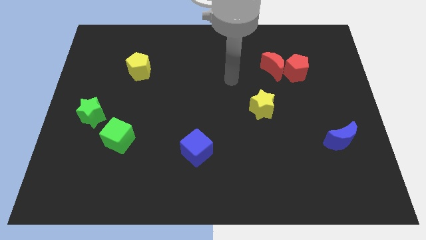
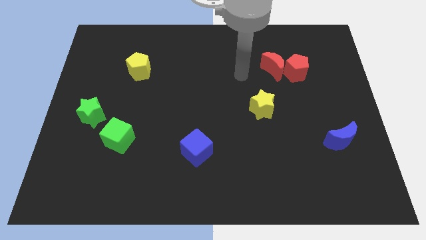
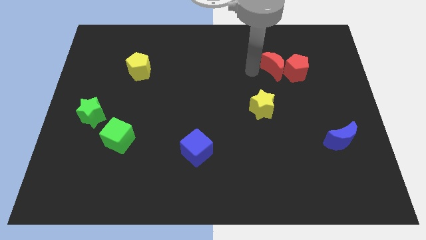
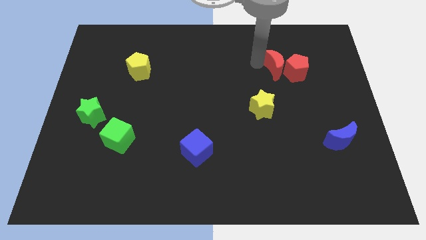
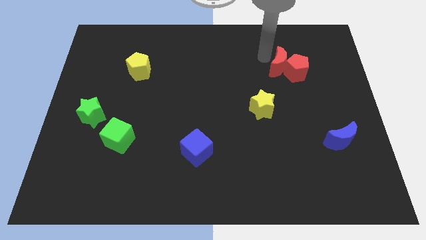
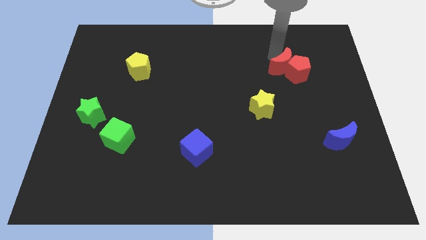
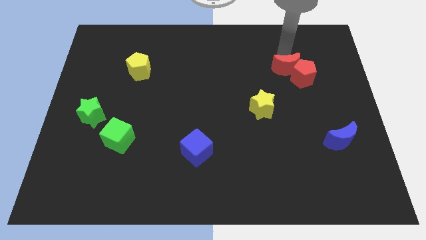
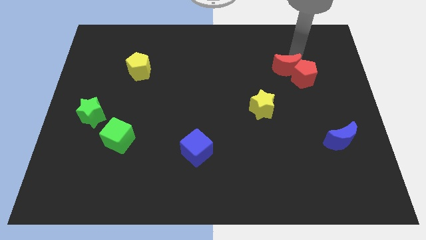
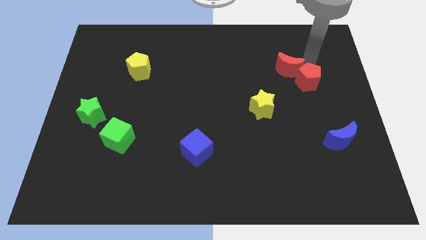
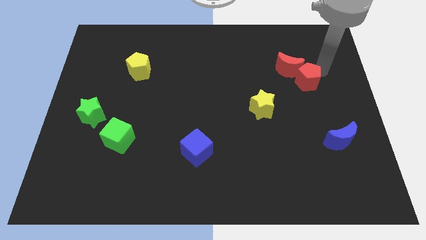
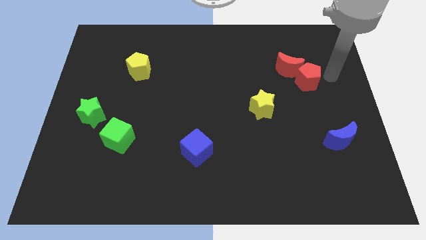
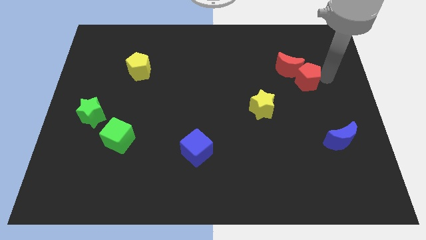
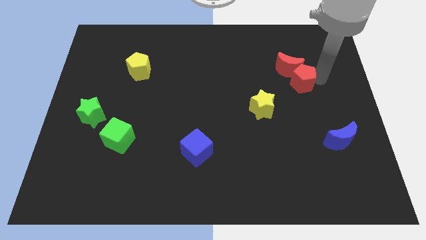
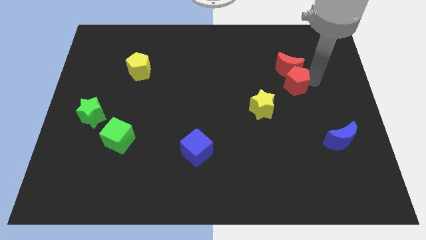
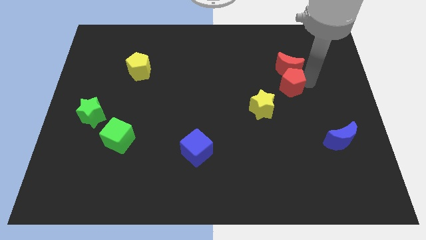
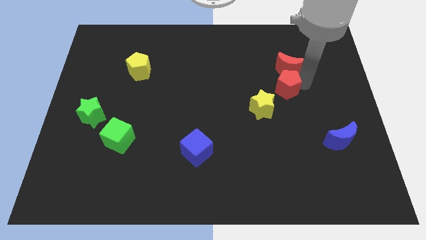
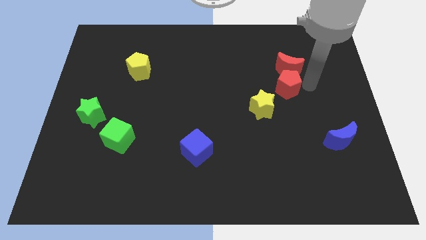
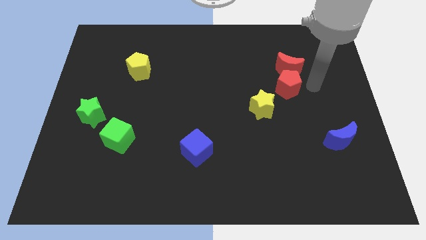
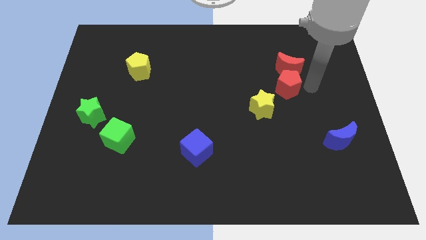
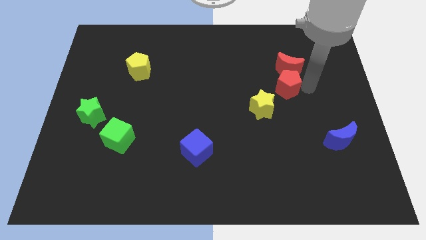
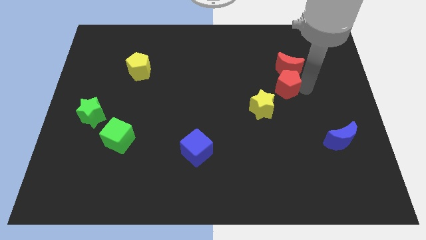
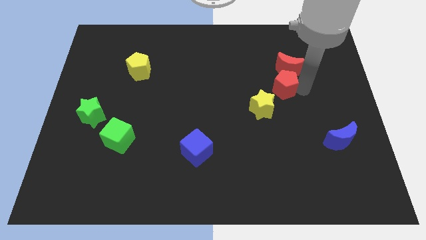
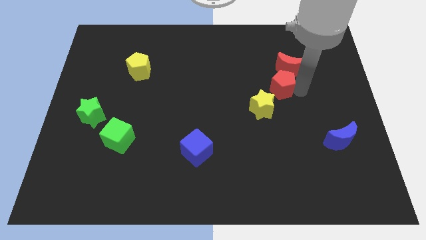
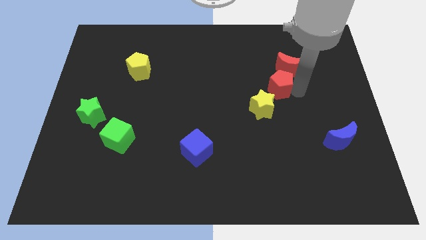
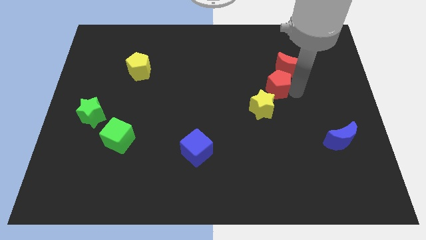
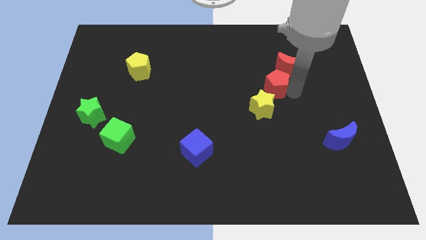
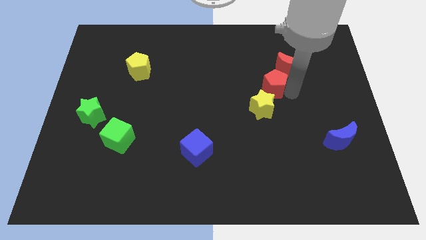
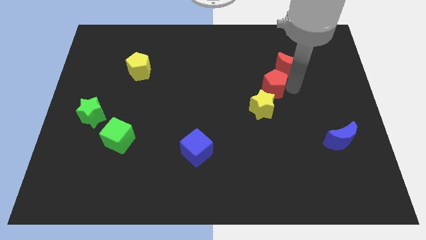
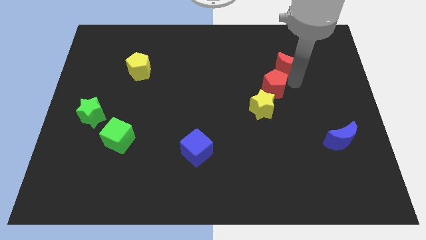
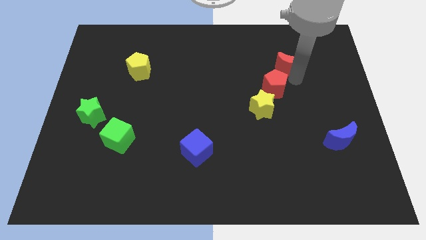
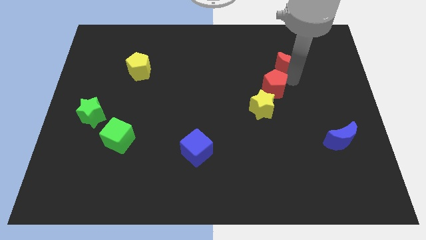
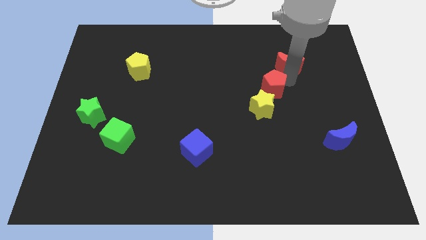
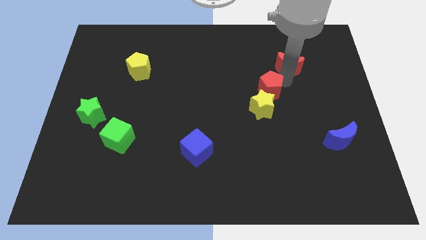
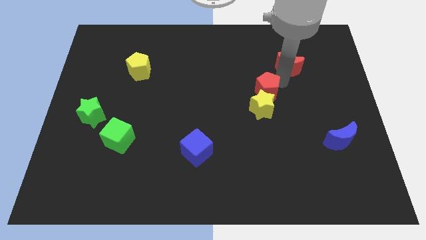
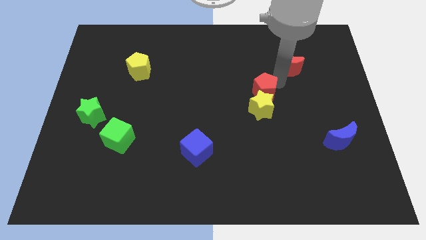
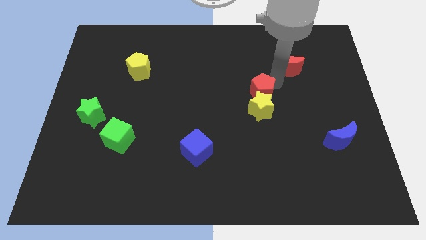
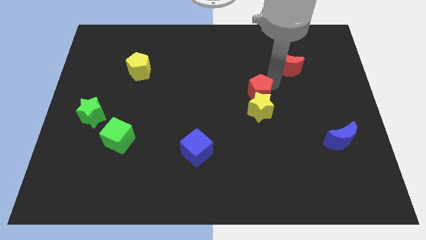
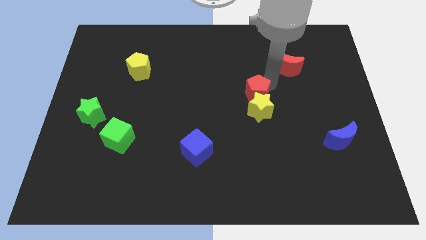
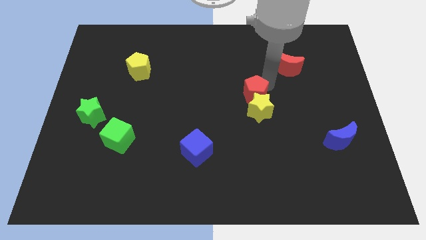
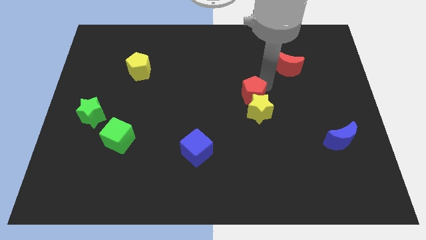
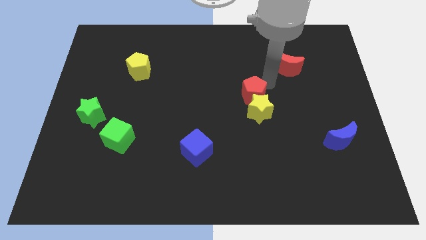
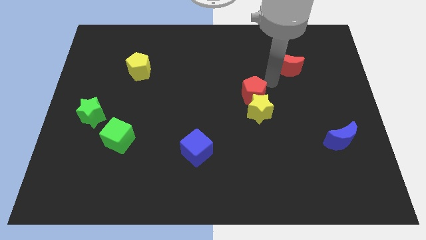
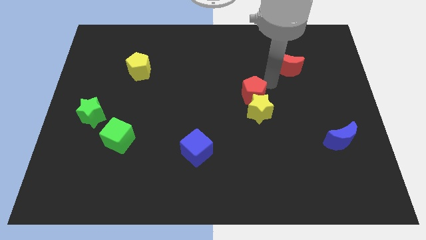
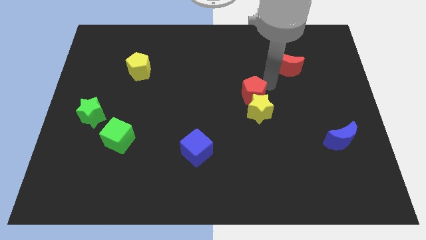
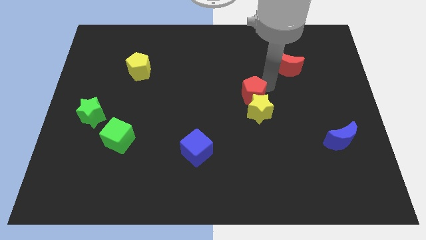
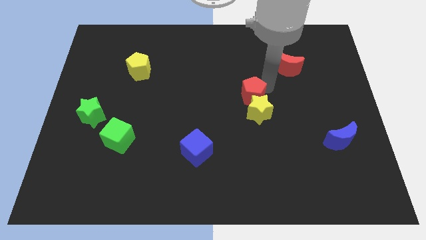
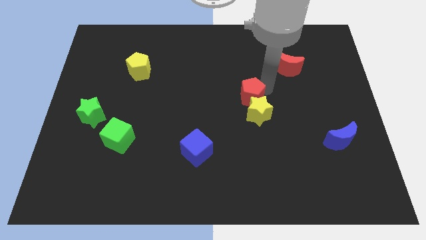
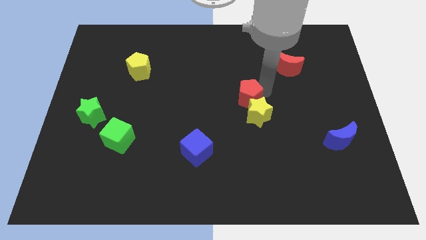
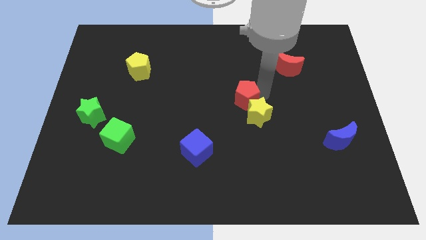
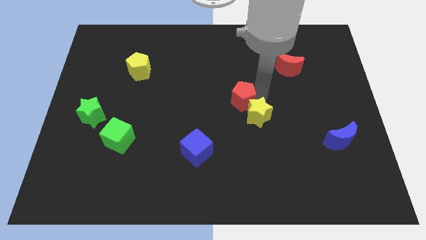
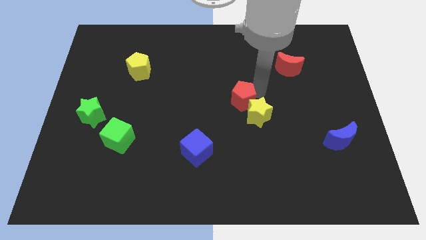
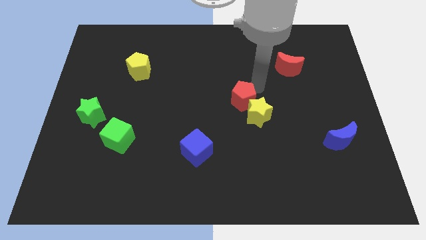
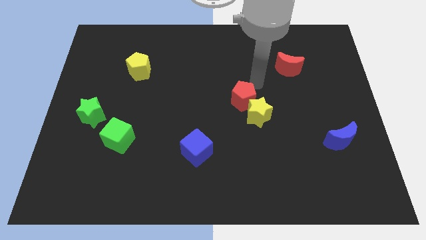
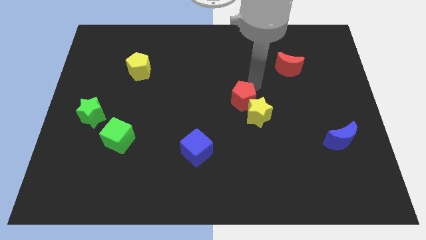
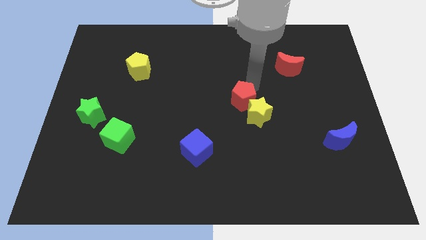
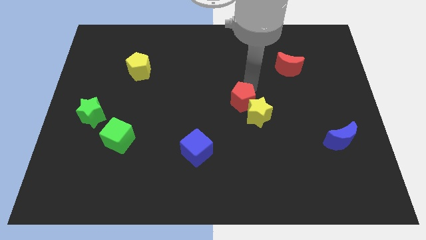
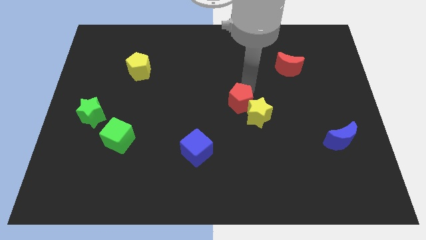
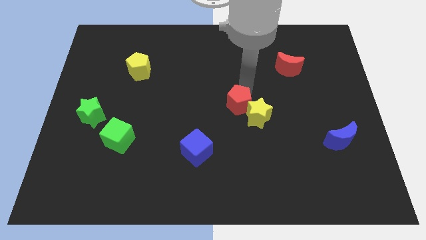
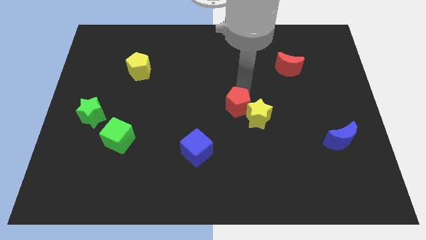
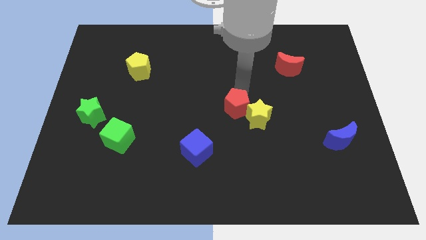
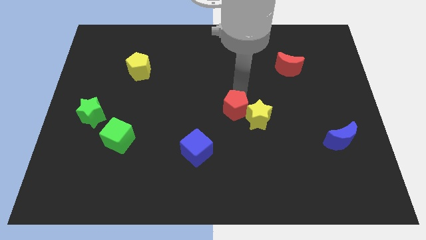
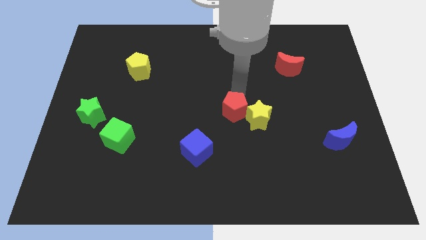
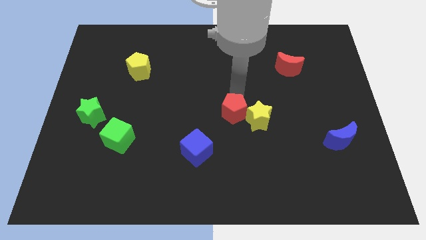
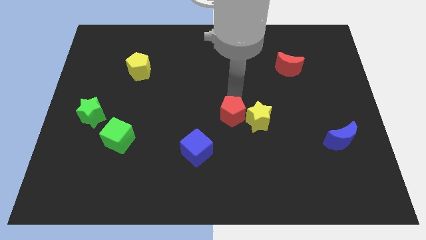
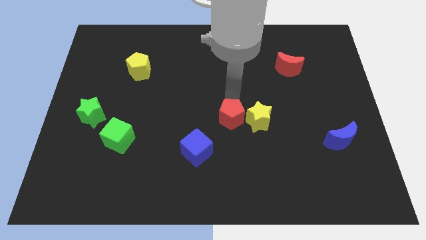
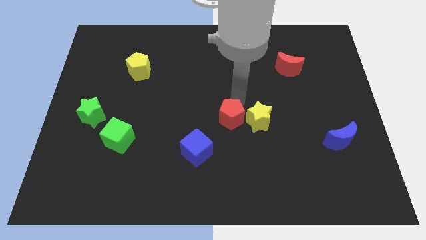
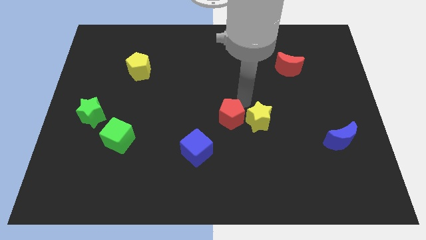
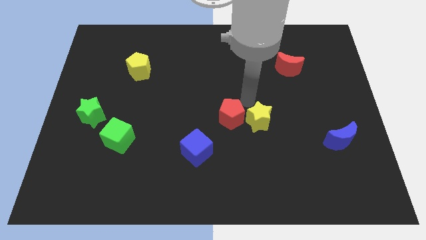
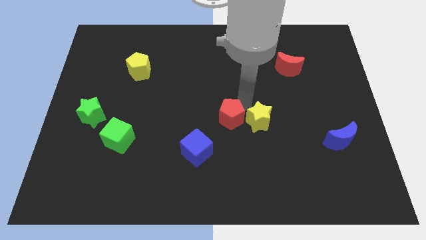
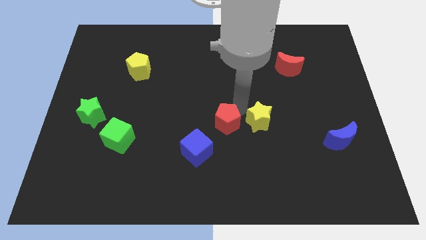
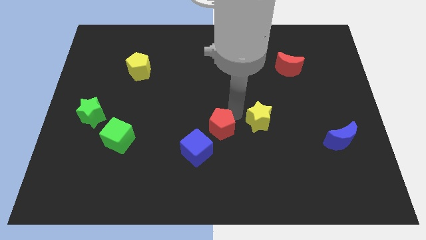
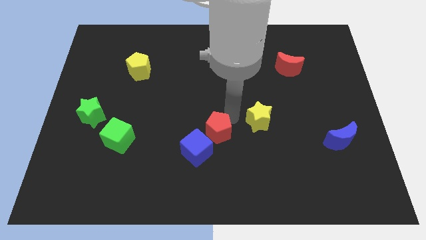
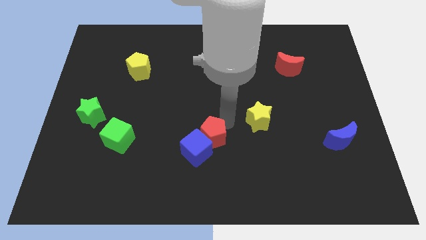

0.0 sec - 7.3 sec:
move the red pentagon close to the blue cube
